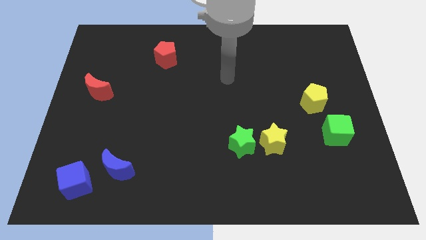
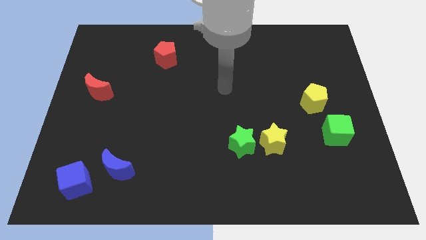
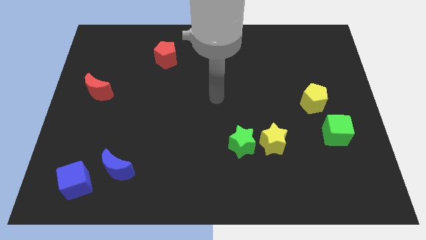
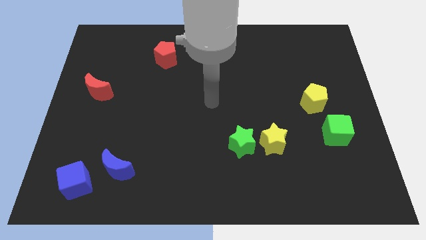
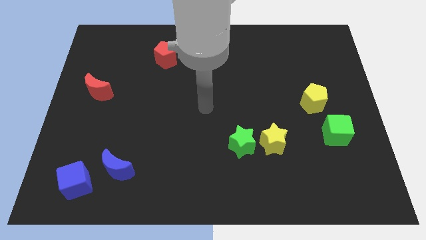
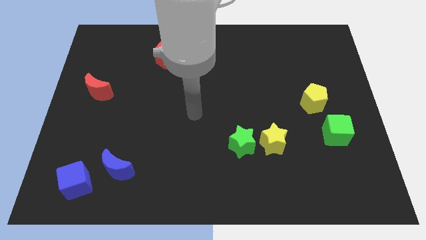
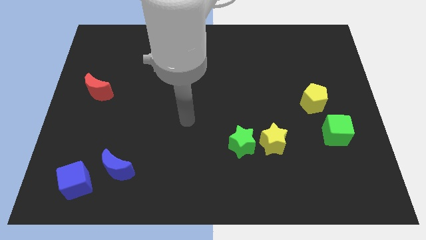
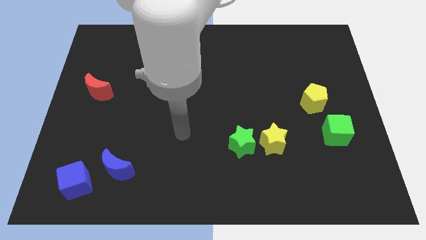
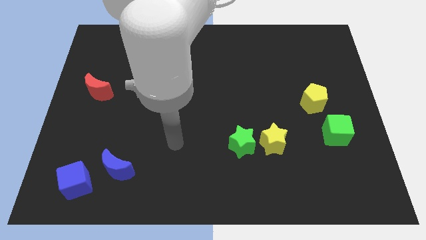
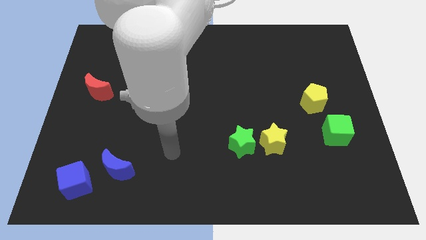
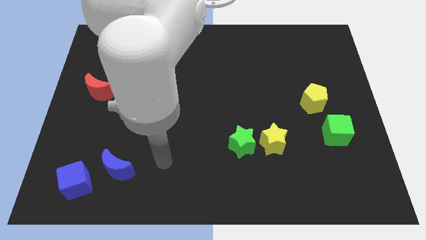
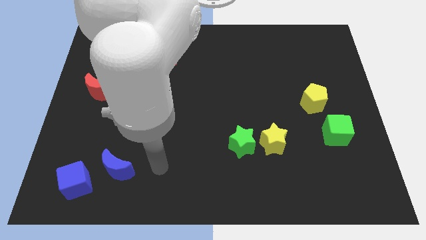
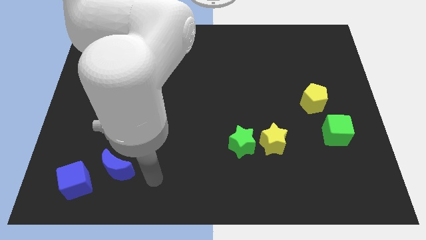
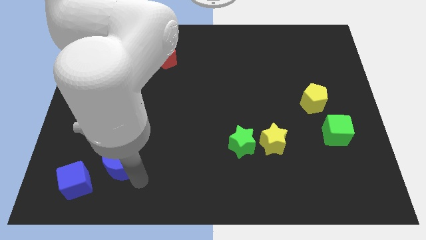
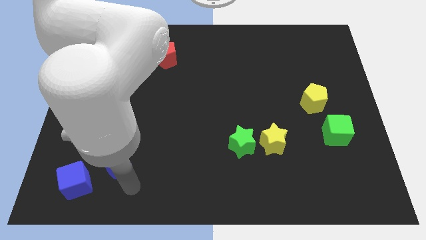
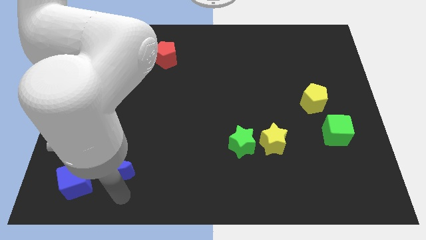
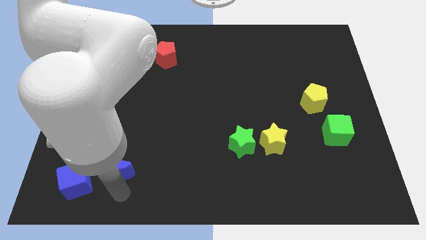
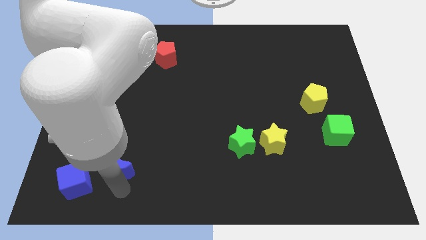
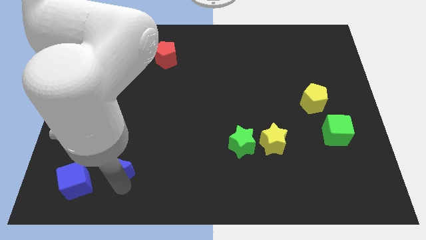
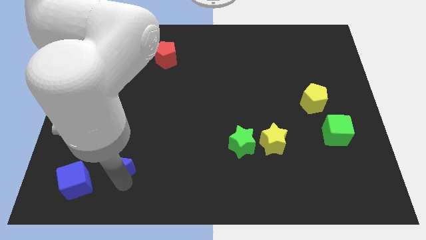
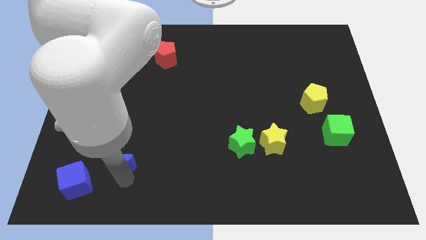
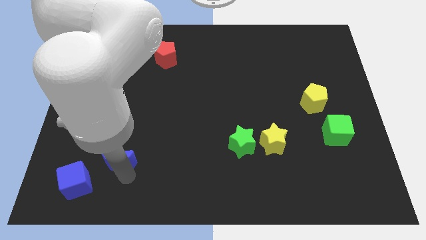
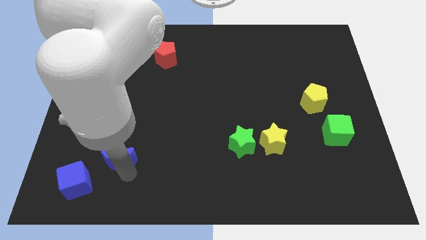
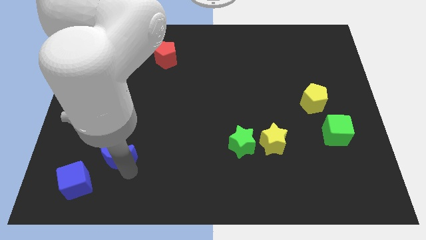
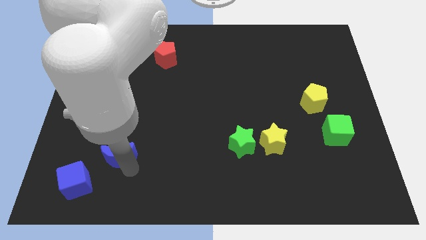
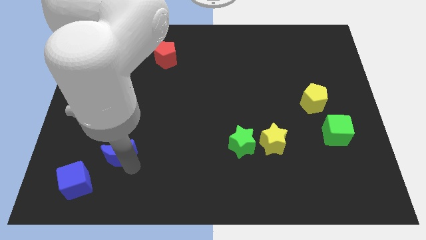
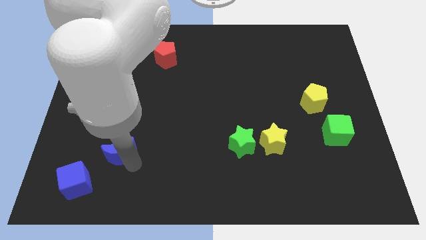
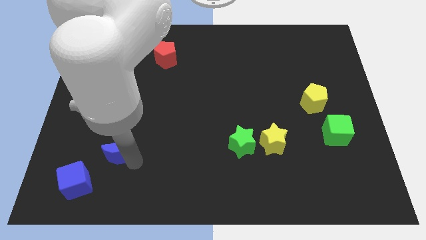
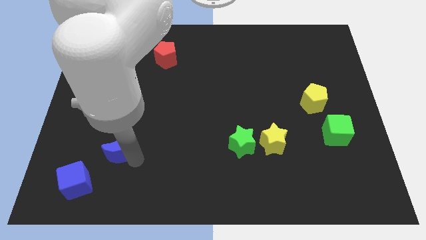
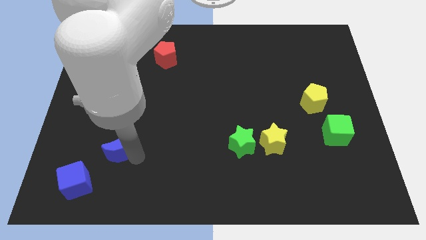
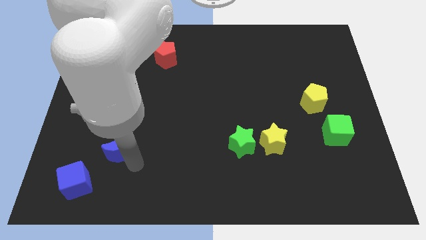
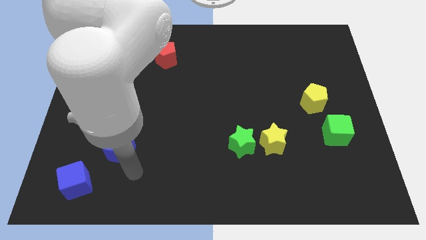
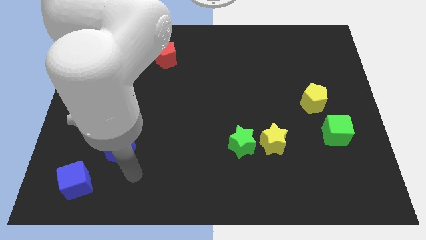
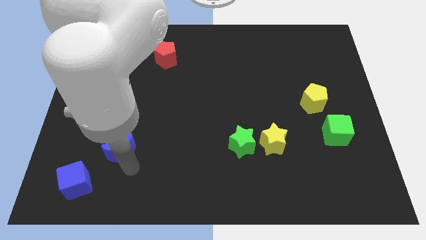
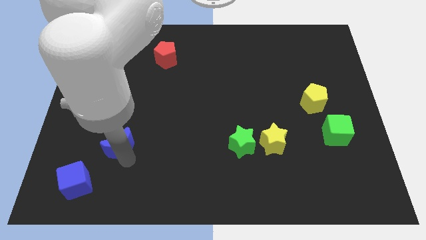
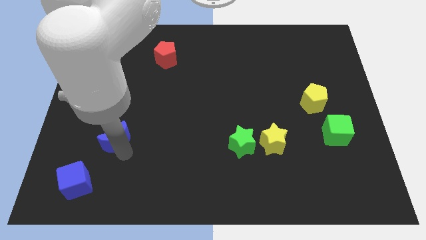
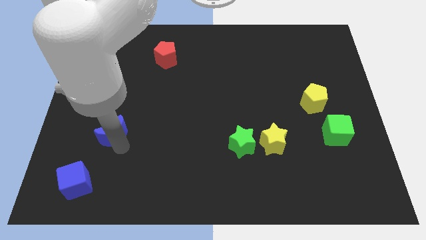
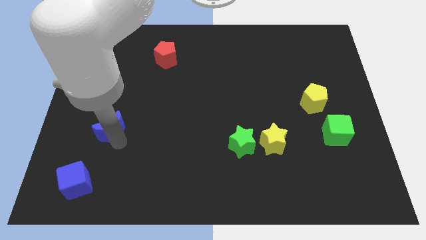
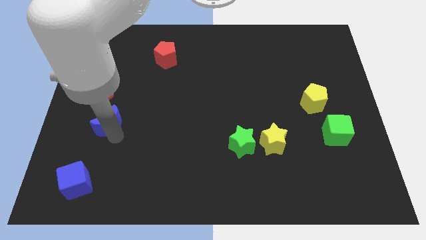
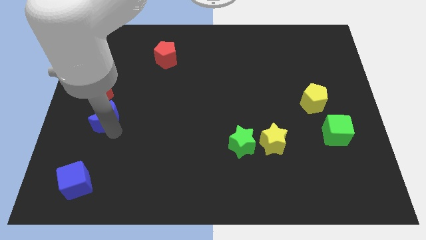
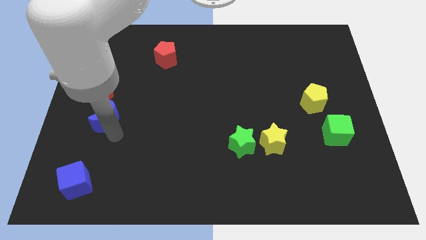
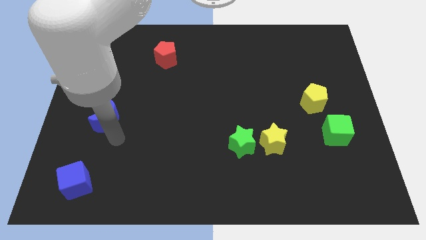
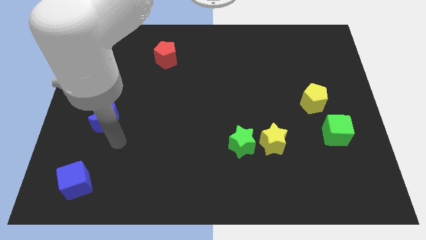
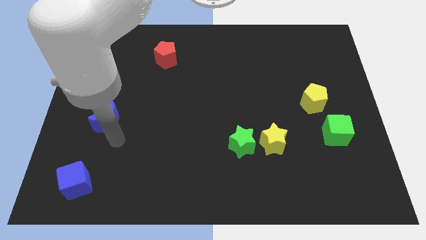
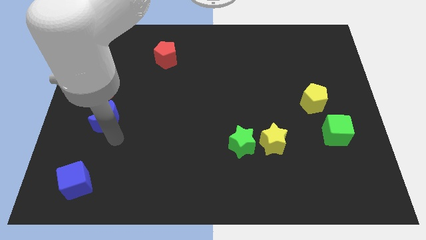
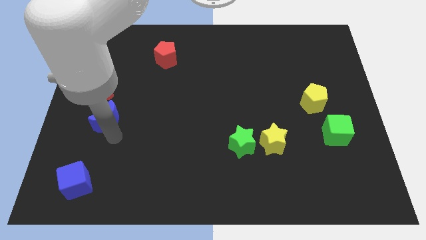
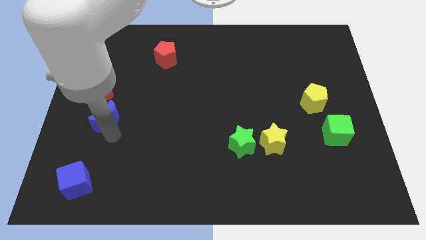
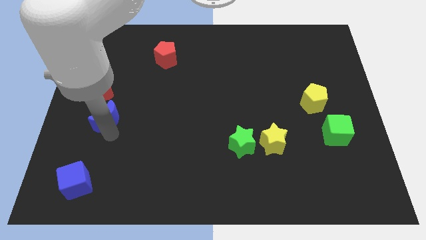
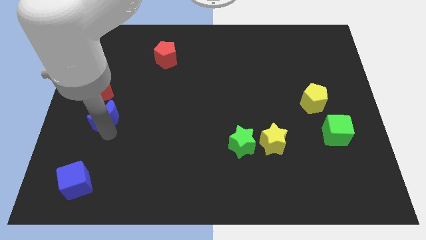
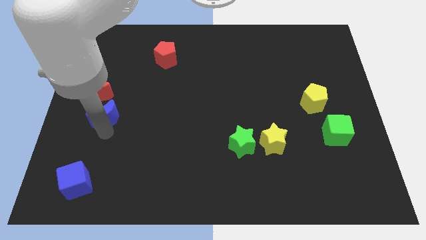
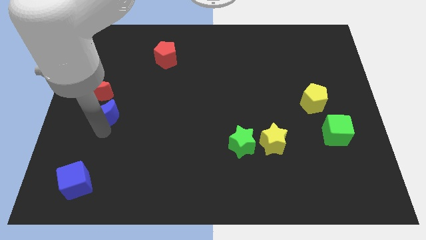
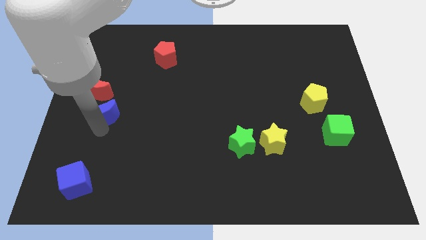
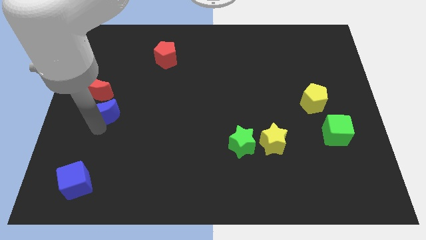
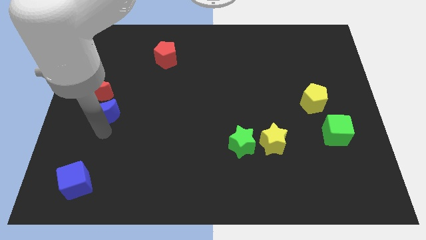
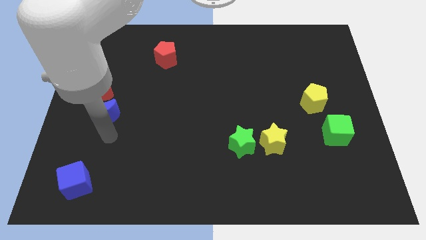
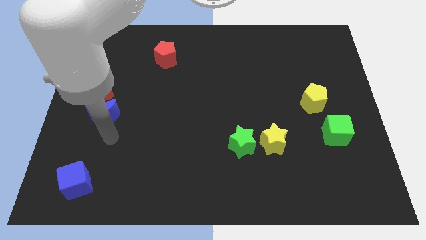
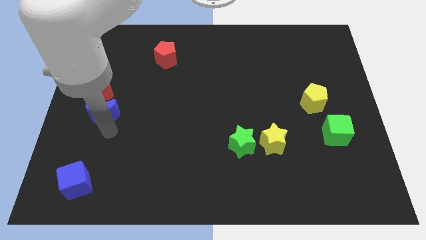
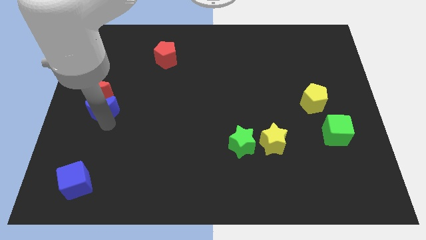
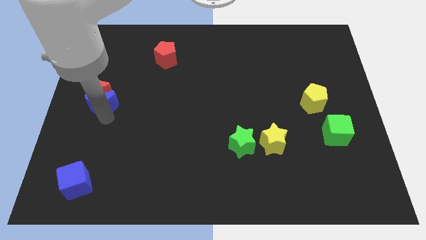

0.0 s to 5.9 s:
put the blue moon towards the red moon
